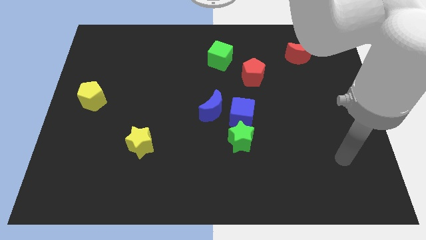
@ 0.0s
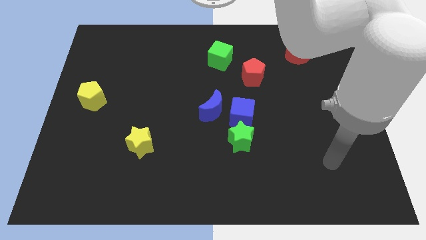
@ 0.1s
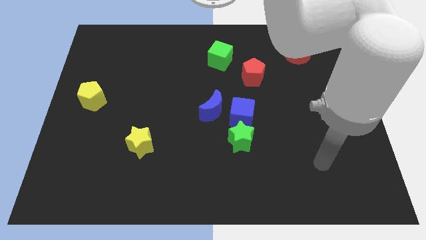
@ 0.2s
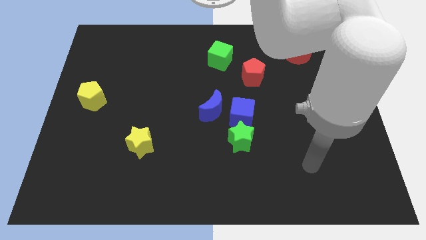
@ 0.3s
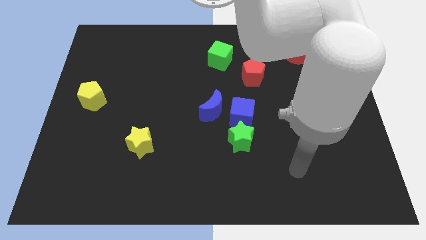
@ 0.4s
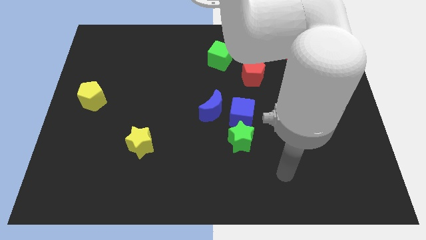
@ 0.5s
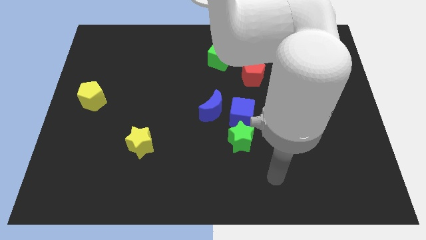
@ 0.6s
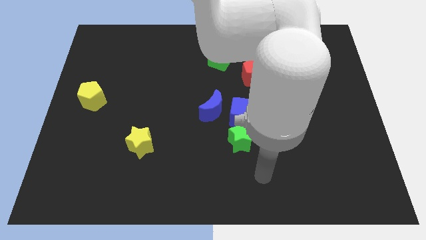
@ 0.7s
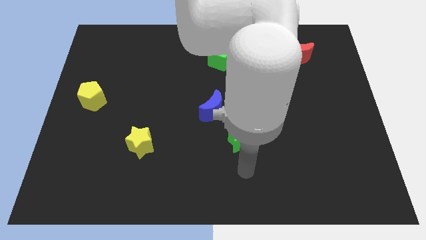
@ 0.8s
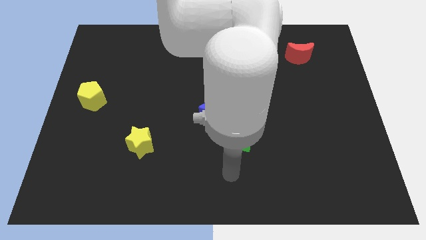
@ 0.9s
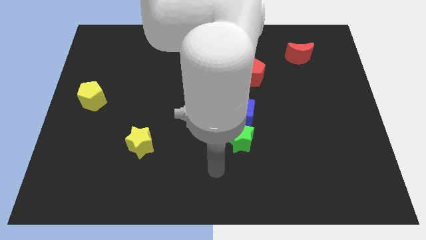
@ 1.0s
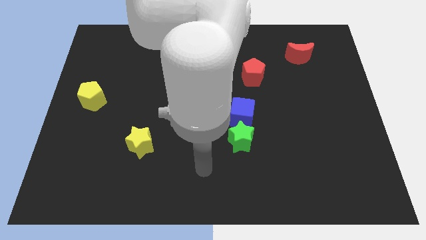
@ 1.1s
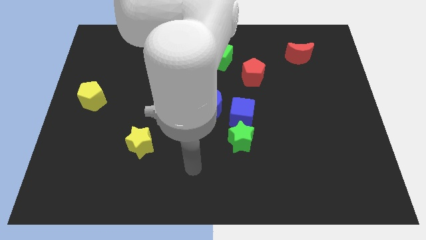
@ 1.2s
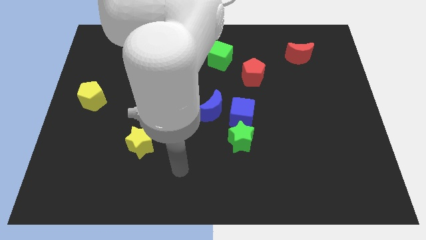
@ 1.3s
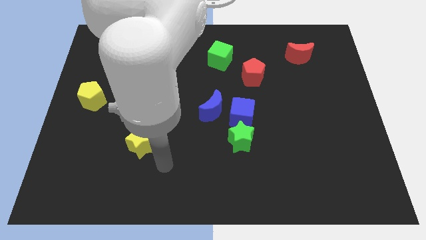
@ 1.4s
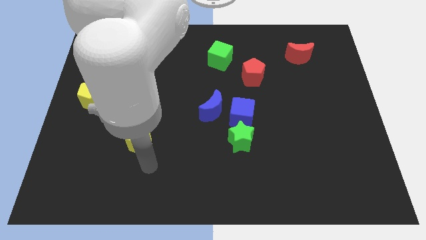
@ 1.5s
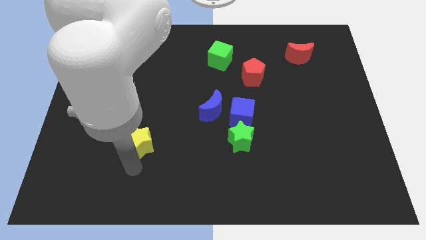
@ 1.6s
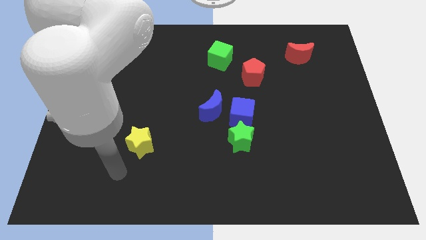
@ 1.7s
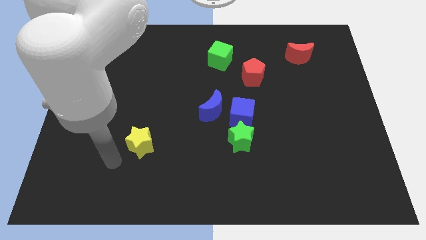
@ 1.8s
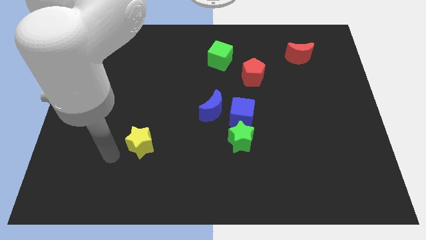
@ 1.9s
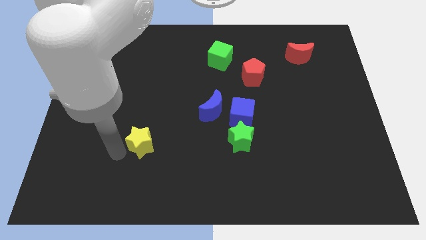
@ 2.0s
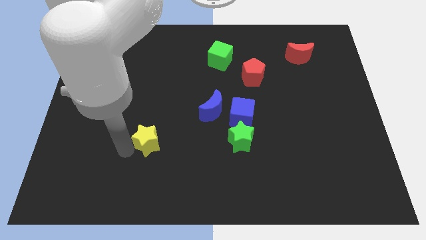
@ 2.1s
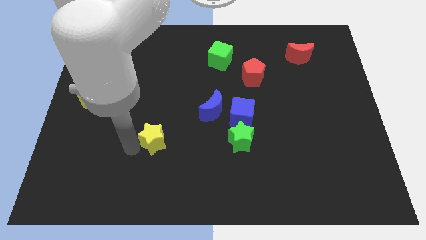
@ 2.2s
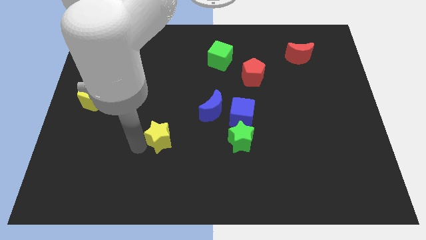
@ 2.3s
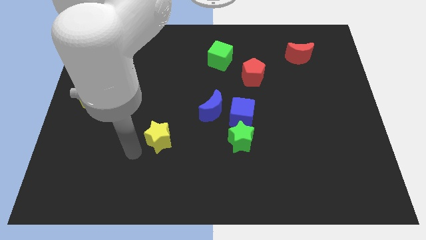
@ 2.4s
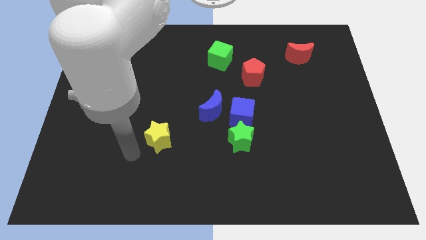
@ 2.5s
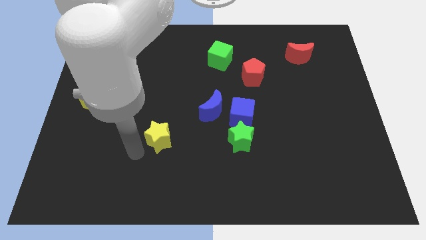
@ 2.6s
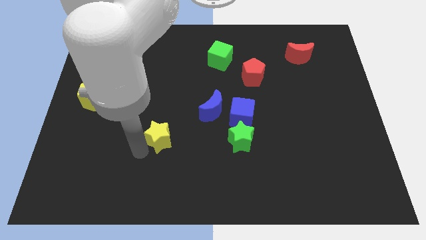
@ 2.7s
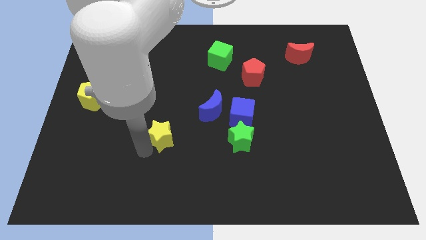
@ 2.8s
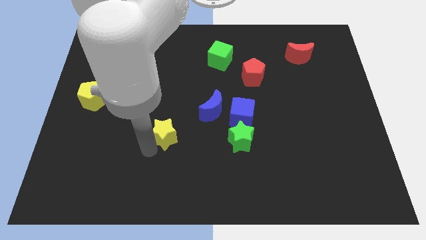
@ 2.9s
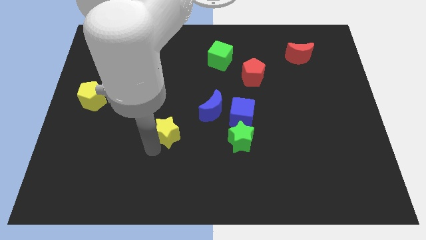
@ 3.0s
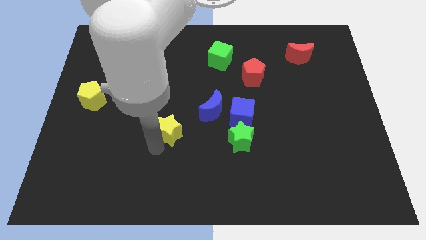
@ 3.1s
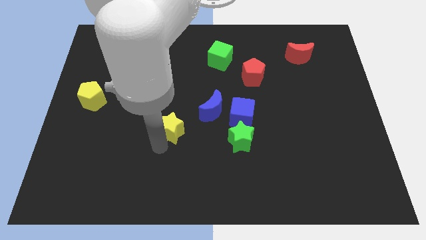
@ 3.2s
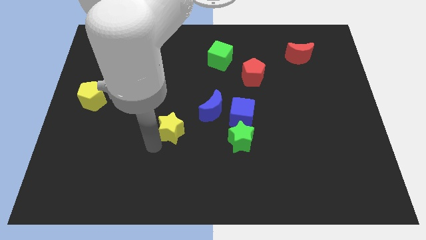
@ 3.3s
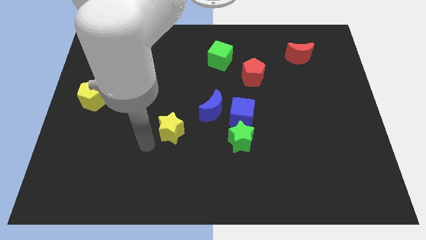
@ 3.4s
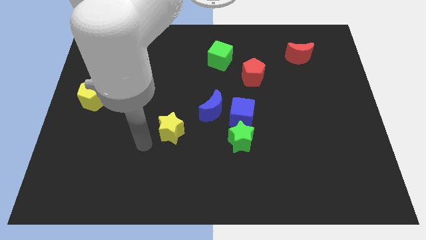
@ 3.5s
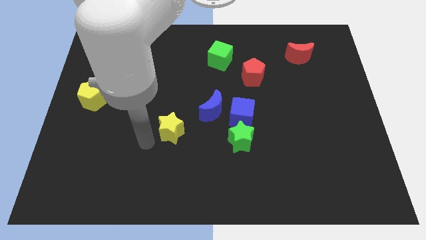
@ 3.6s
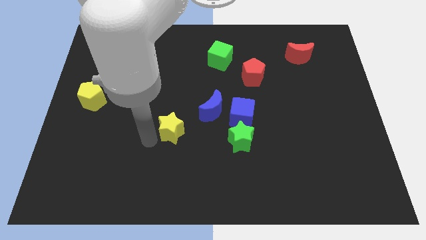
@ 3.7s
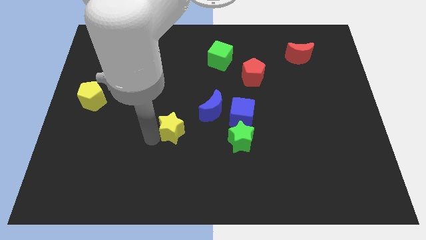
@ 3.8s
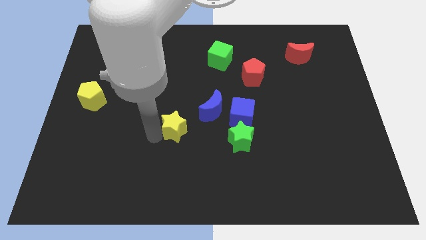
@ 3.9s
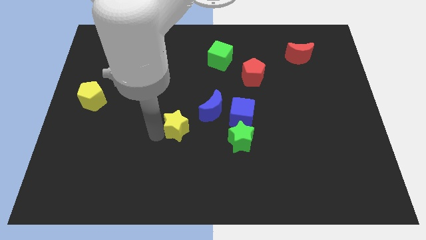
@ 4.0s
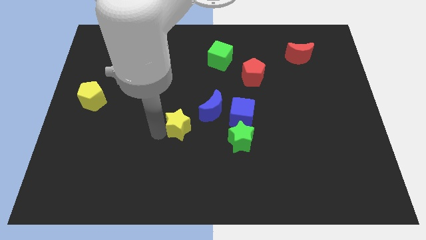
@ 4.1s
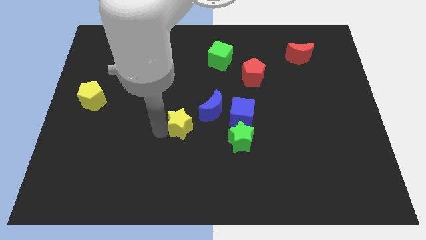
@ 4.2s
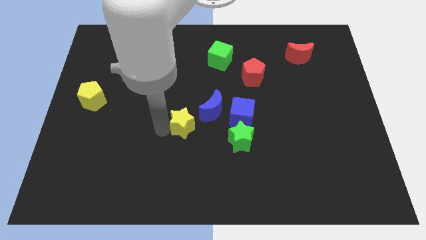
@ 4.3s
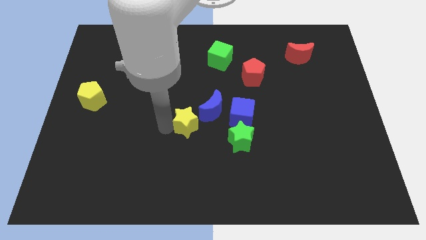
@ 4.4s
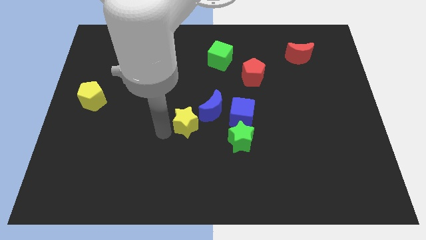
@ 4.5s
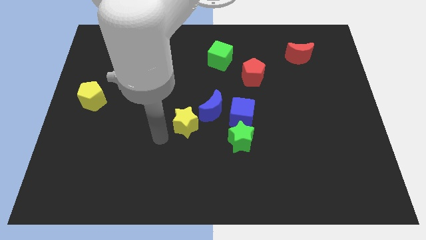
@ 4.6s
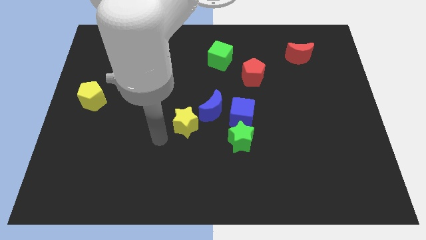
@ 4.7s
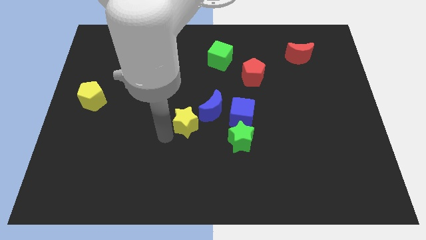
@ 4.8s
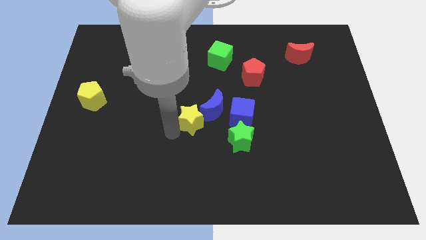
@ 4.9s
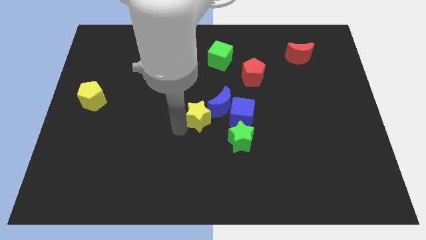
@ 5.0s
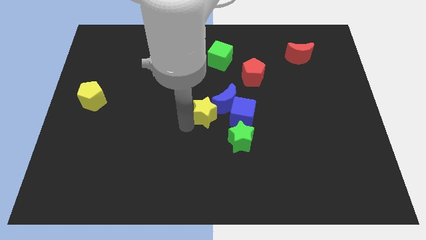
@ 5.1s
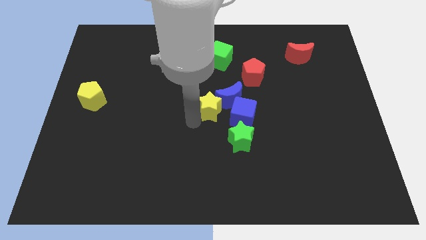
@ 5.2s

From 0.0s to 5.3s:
slide the yellow star to the blue moon

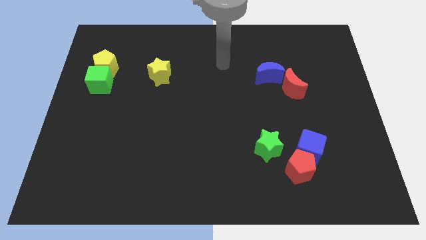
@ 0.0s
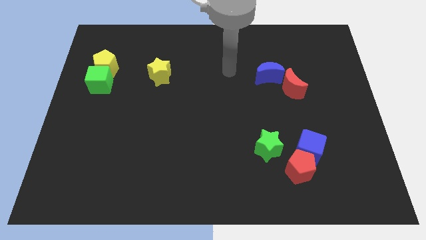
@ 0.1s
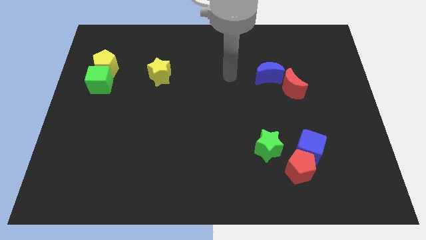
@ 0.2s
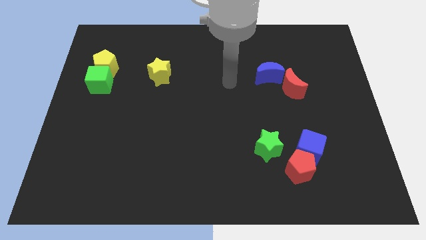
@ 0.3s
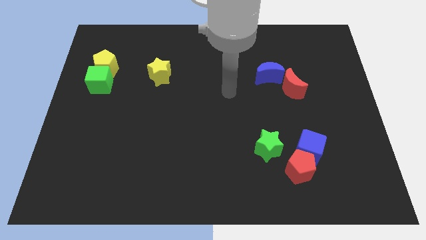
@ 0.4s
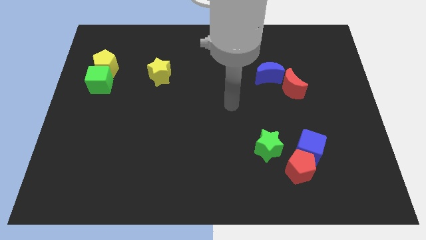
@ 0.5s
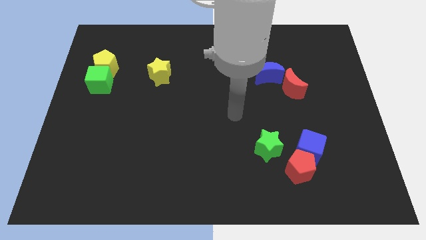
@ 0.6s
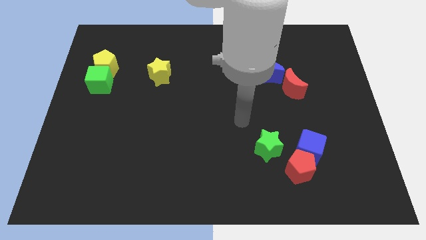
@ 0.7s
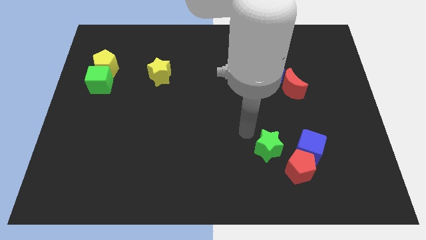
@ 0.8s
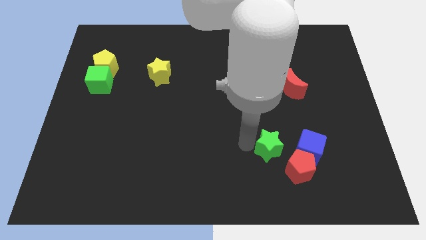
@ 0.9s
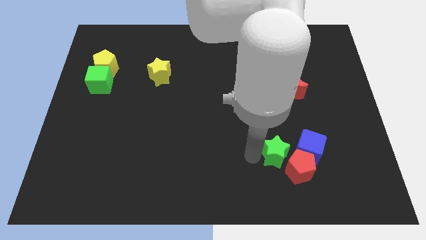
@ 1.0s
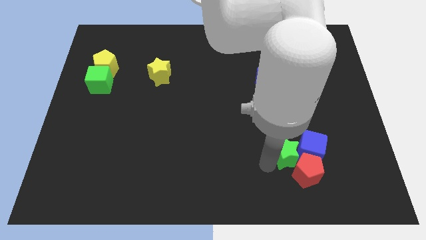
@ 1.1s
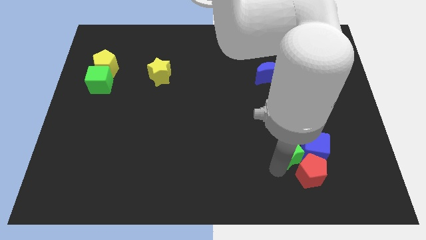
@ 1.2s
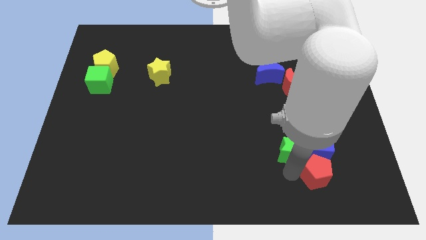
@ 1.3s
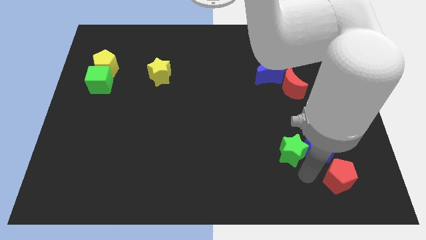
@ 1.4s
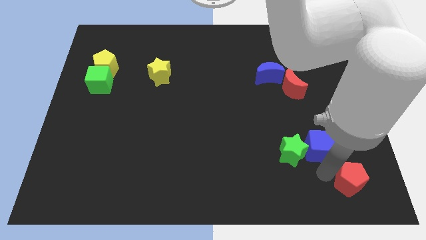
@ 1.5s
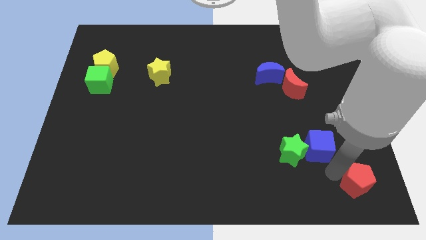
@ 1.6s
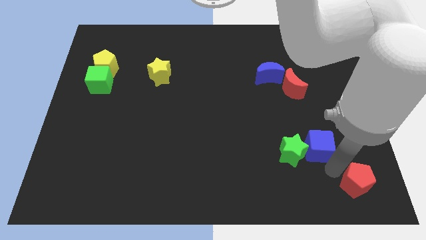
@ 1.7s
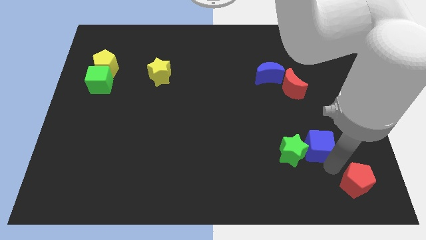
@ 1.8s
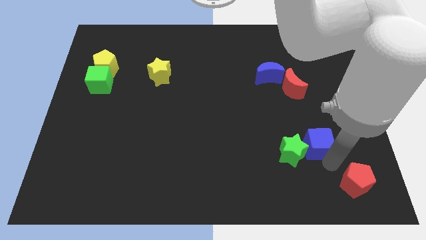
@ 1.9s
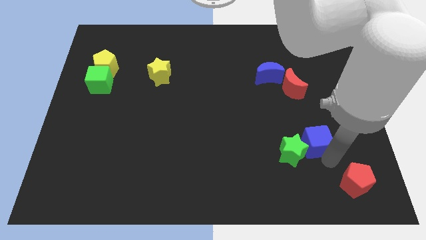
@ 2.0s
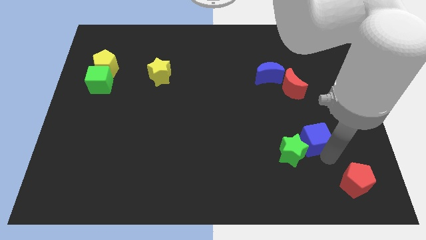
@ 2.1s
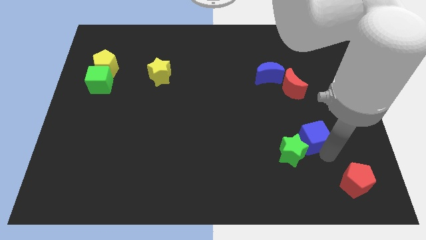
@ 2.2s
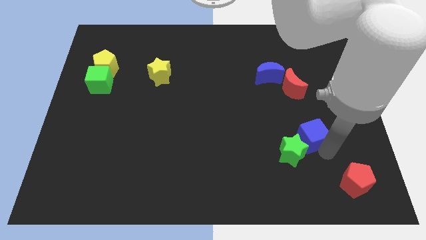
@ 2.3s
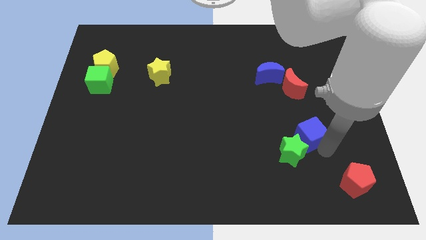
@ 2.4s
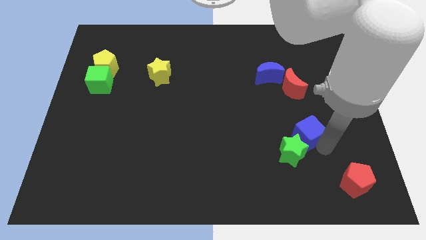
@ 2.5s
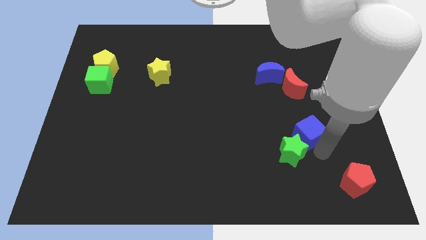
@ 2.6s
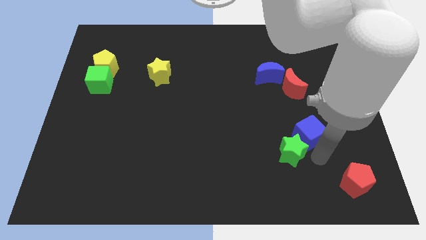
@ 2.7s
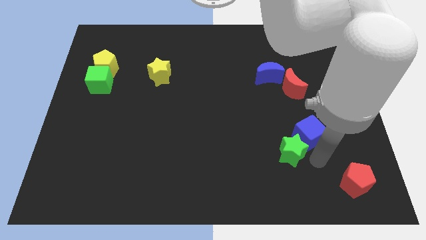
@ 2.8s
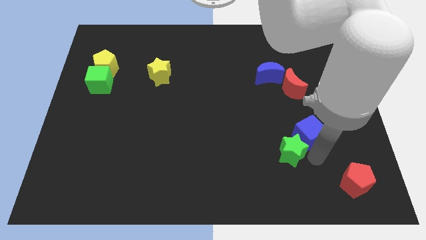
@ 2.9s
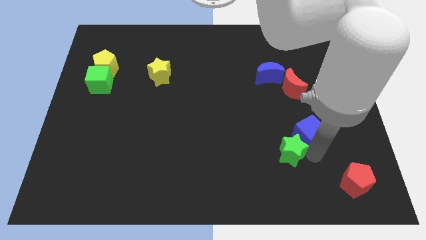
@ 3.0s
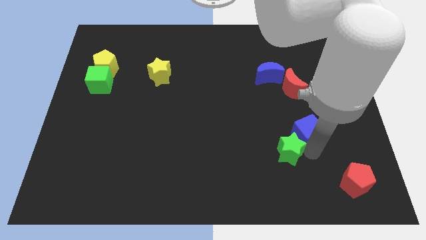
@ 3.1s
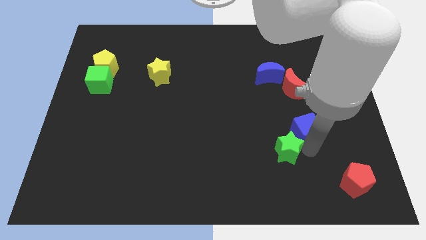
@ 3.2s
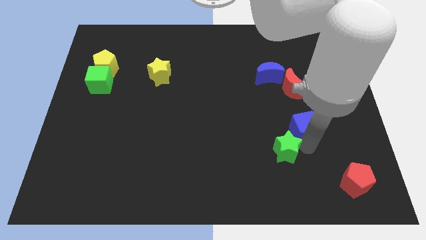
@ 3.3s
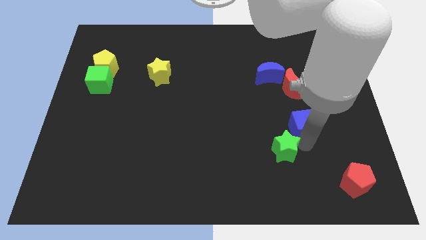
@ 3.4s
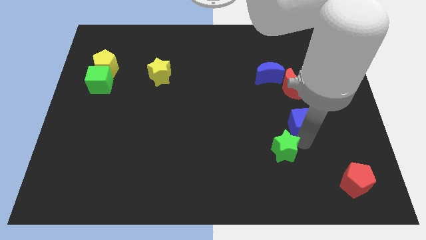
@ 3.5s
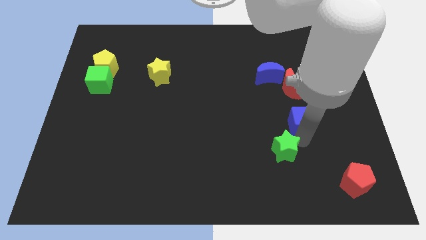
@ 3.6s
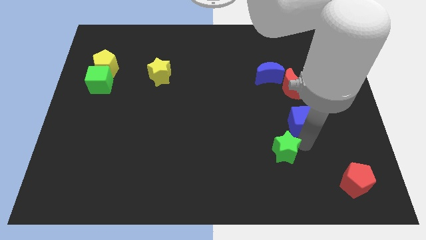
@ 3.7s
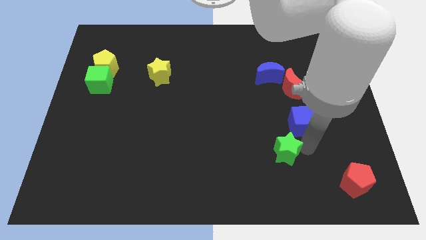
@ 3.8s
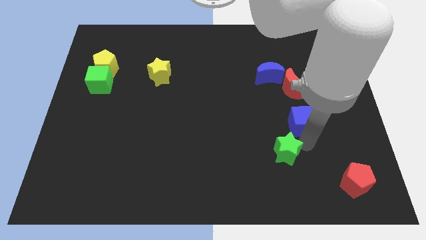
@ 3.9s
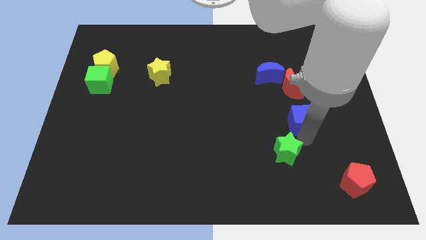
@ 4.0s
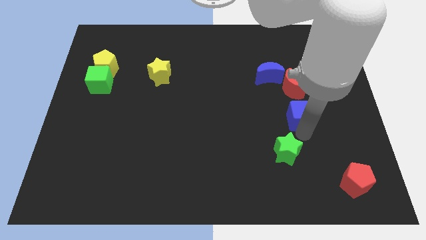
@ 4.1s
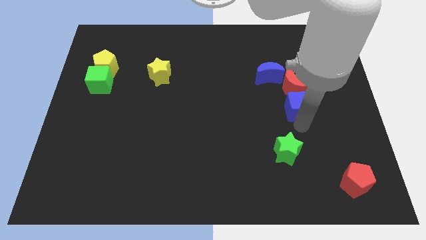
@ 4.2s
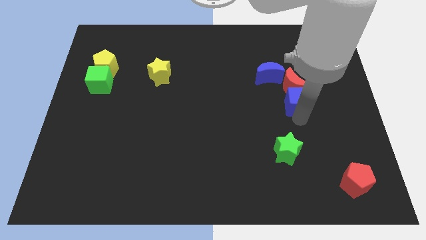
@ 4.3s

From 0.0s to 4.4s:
put the blue cube to the red moon
